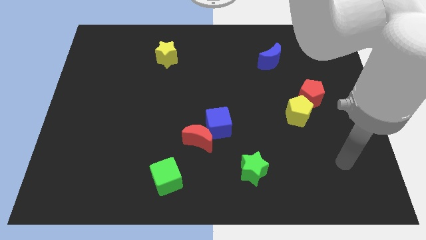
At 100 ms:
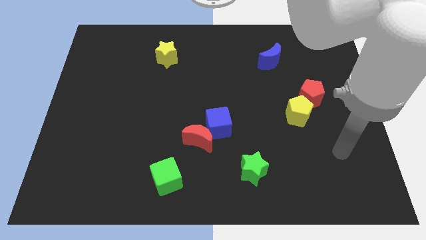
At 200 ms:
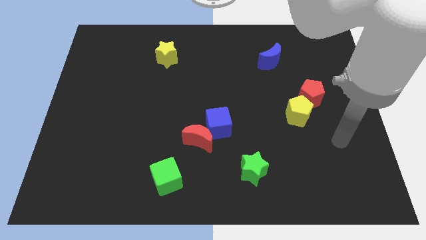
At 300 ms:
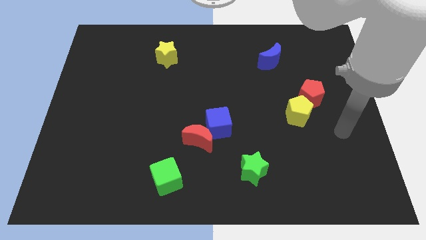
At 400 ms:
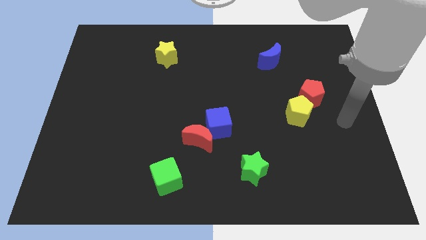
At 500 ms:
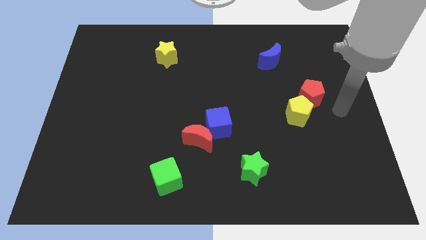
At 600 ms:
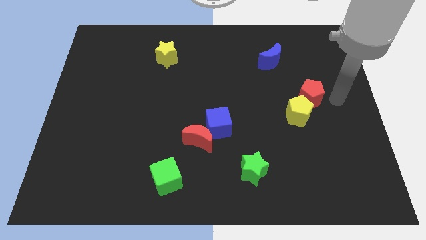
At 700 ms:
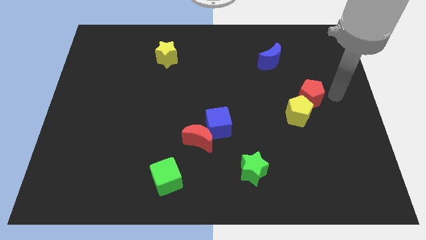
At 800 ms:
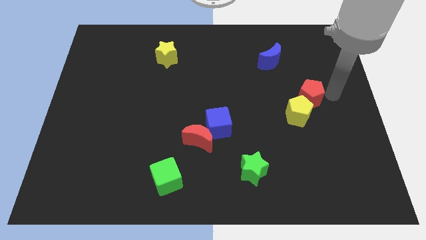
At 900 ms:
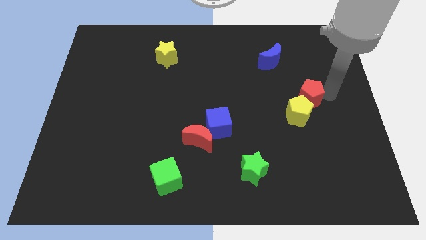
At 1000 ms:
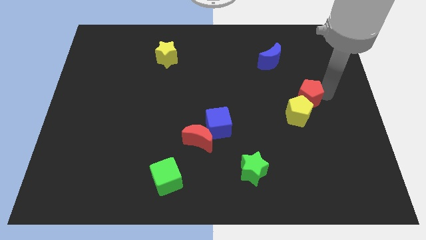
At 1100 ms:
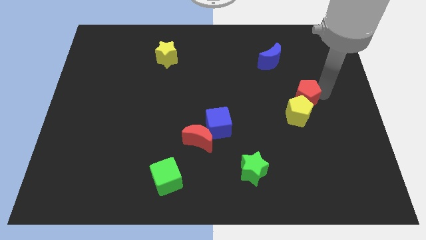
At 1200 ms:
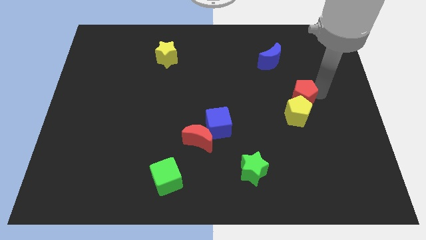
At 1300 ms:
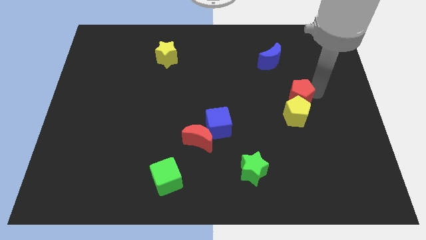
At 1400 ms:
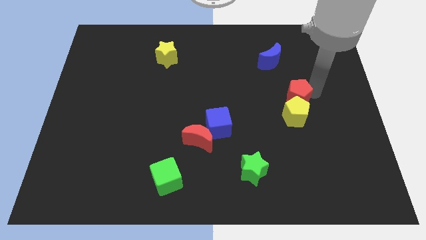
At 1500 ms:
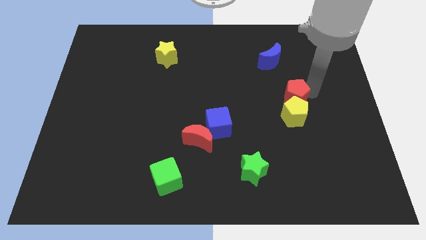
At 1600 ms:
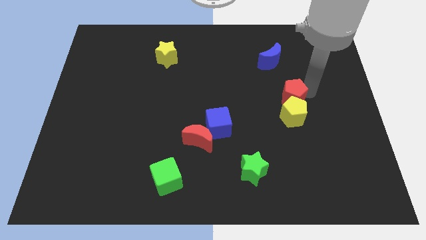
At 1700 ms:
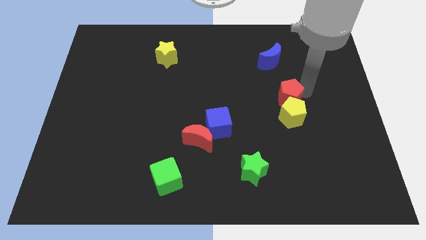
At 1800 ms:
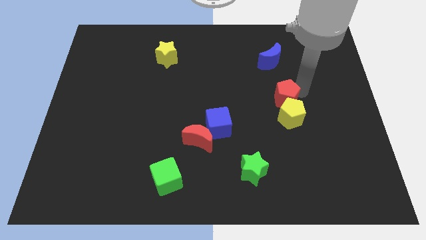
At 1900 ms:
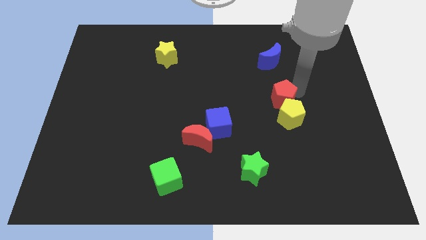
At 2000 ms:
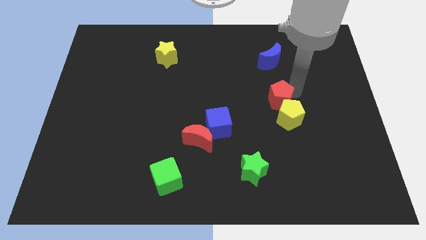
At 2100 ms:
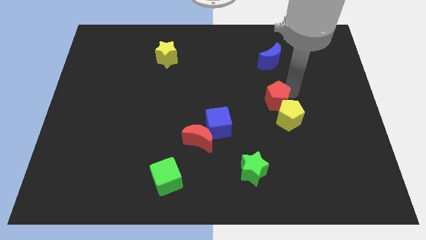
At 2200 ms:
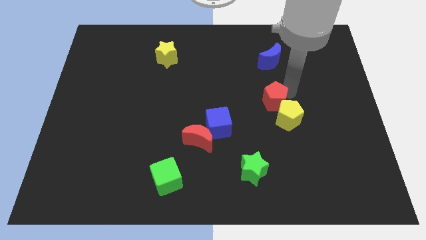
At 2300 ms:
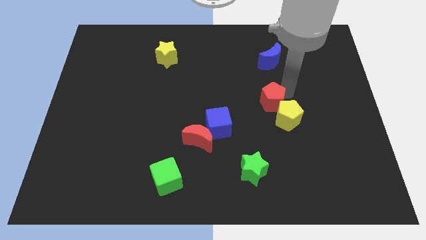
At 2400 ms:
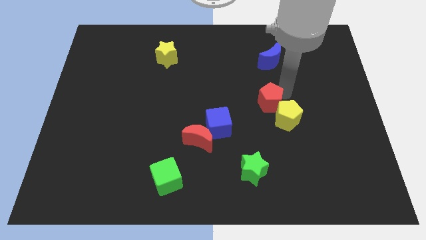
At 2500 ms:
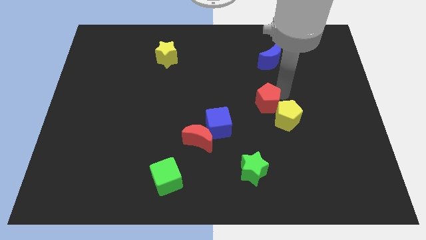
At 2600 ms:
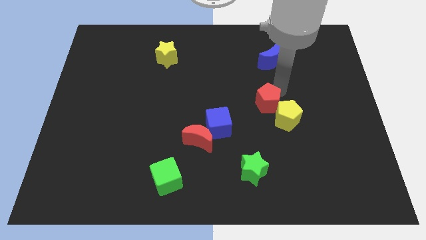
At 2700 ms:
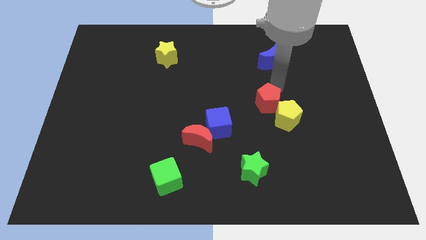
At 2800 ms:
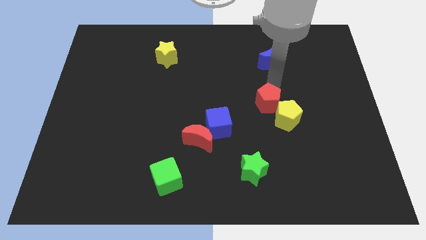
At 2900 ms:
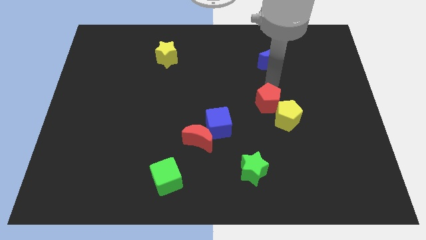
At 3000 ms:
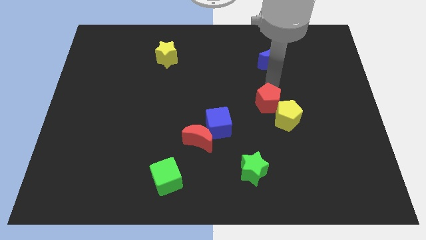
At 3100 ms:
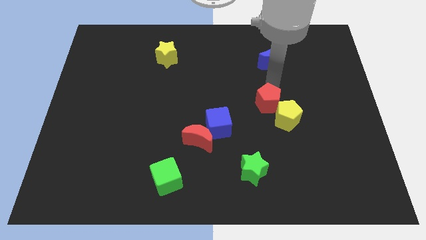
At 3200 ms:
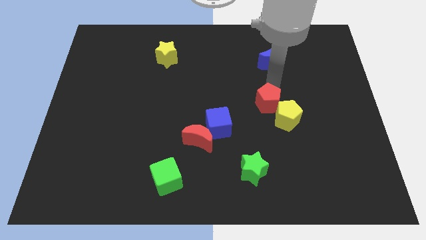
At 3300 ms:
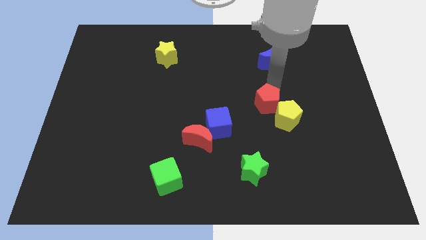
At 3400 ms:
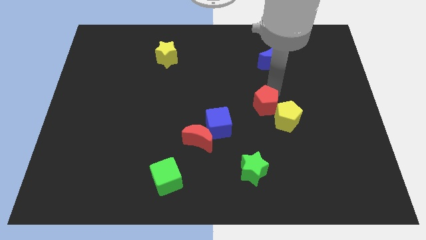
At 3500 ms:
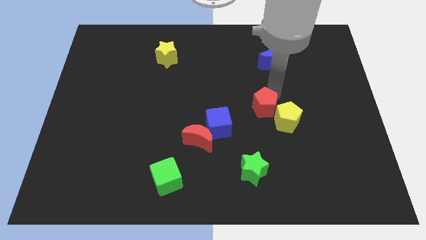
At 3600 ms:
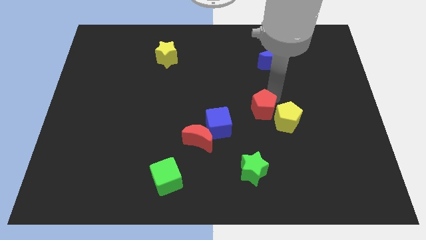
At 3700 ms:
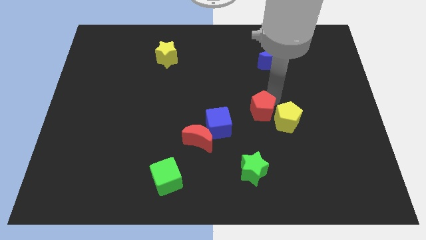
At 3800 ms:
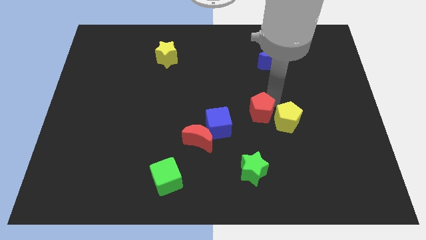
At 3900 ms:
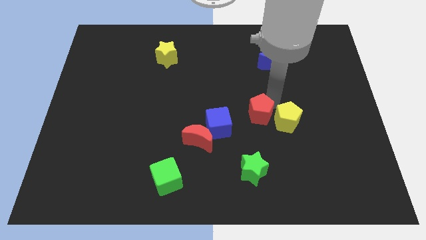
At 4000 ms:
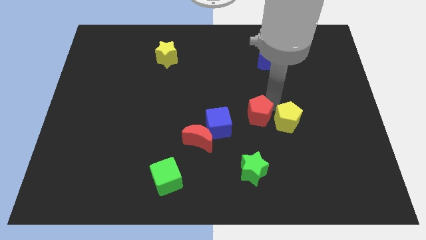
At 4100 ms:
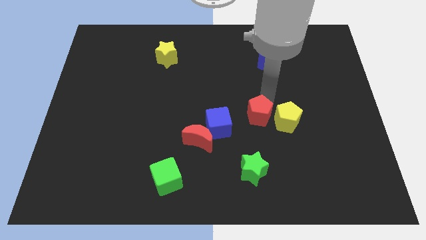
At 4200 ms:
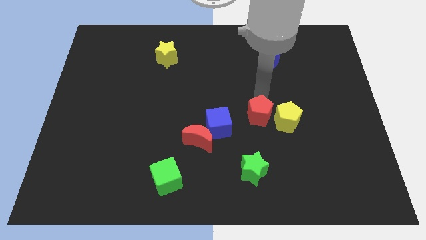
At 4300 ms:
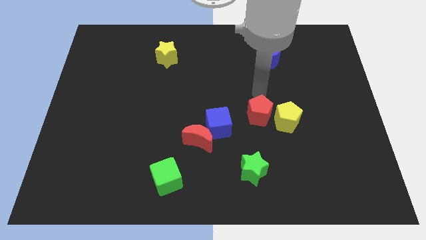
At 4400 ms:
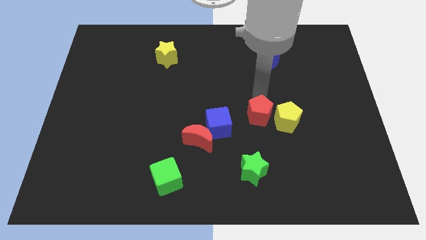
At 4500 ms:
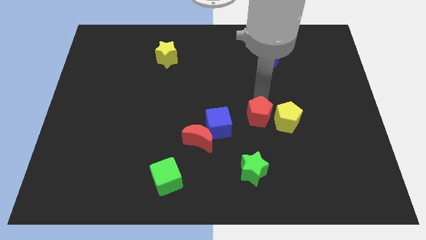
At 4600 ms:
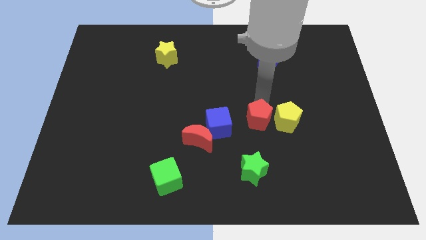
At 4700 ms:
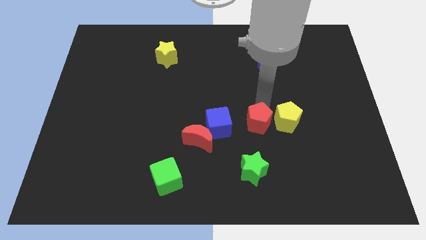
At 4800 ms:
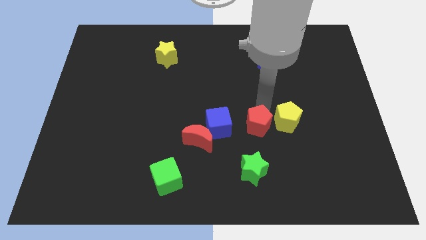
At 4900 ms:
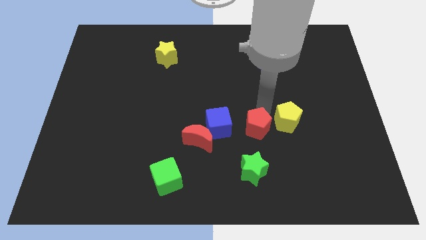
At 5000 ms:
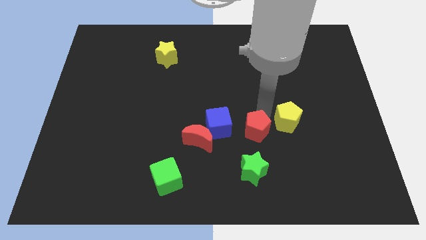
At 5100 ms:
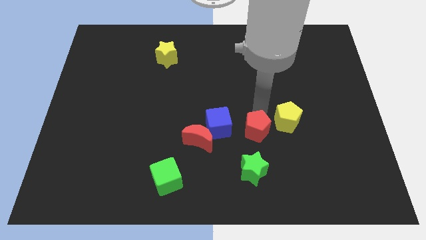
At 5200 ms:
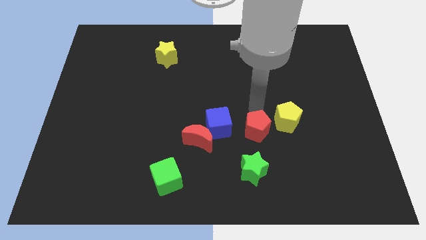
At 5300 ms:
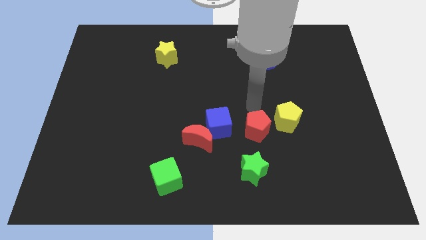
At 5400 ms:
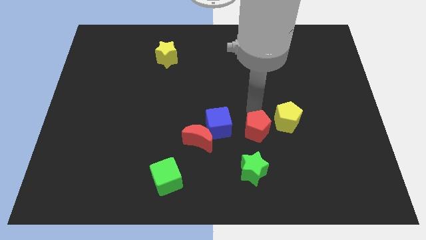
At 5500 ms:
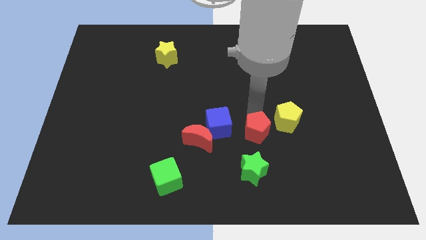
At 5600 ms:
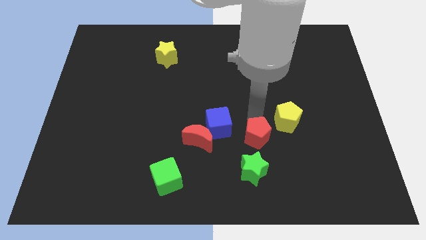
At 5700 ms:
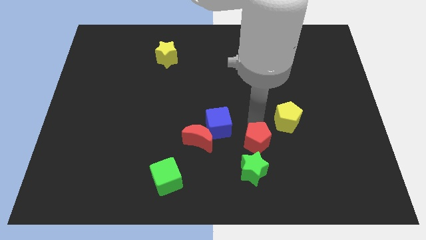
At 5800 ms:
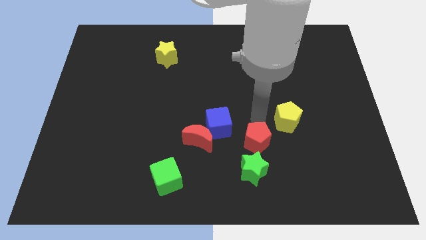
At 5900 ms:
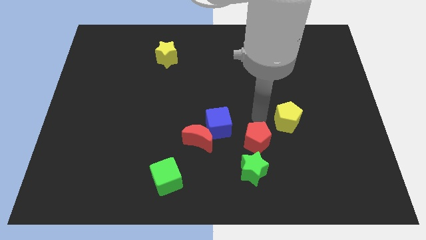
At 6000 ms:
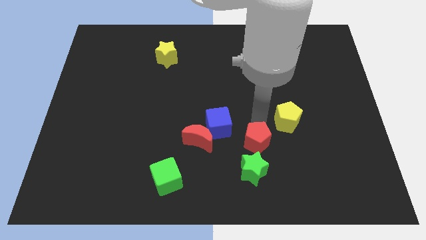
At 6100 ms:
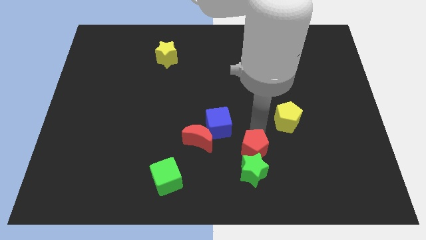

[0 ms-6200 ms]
push the red pentagon towards the green star

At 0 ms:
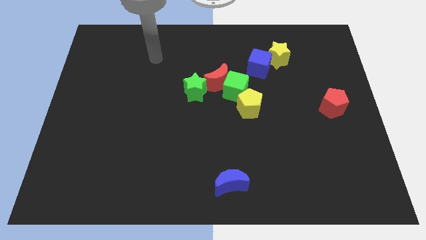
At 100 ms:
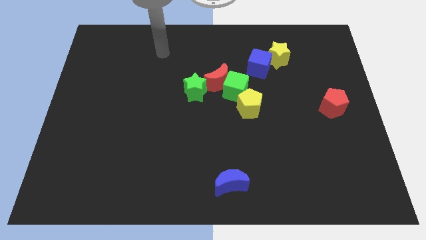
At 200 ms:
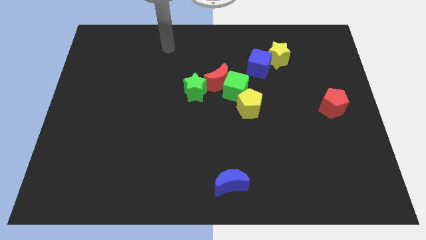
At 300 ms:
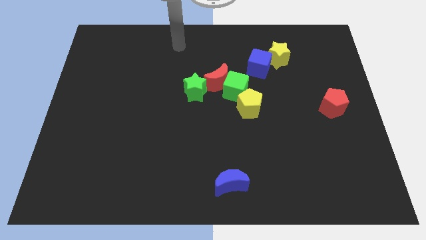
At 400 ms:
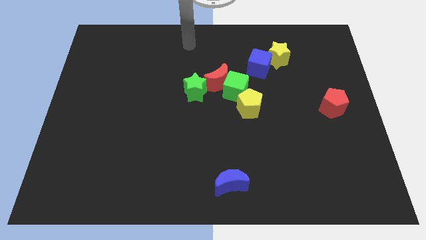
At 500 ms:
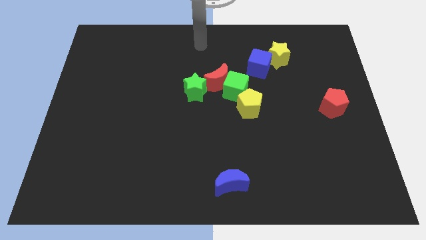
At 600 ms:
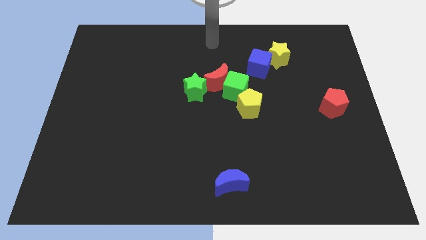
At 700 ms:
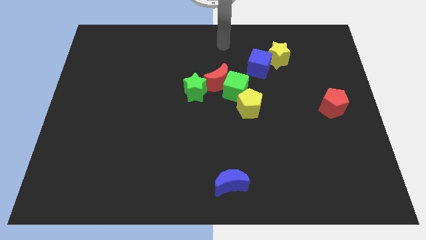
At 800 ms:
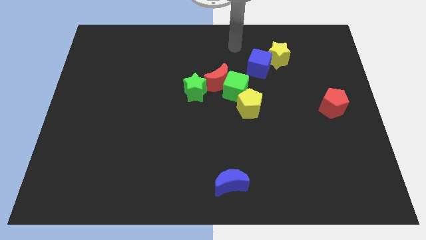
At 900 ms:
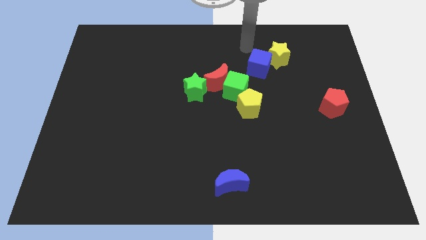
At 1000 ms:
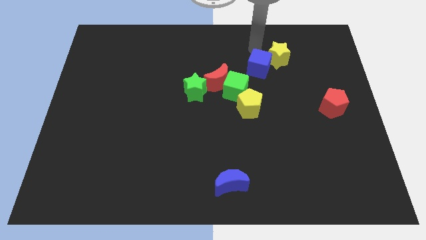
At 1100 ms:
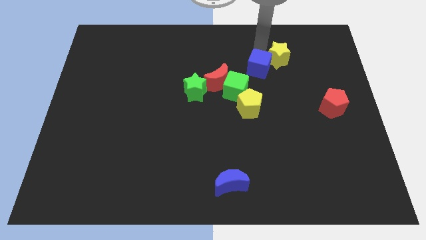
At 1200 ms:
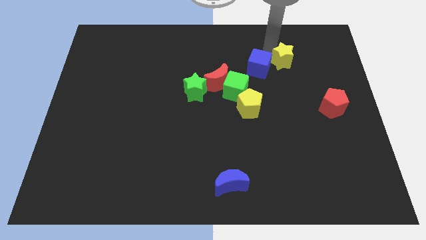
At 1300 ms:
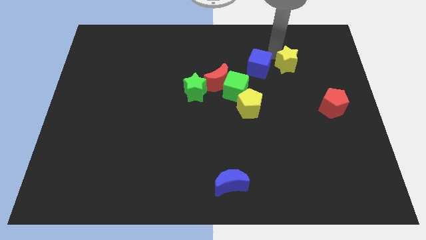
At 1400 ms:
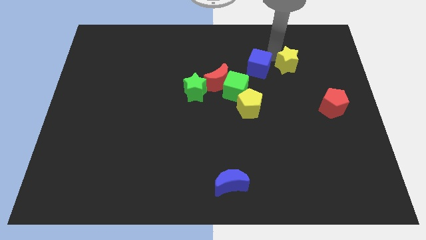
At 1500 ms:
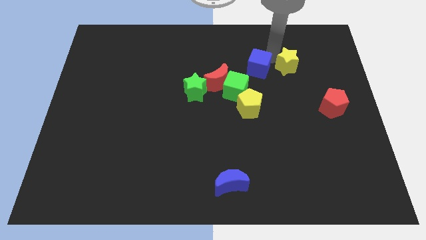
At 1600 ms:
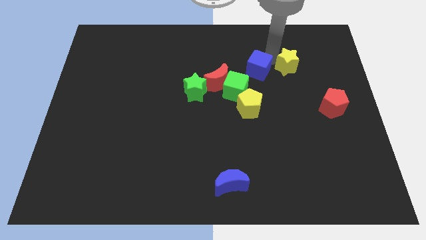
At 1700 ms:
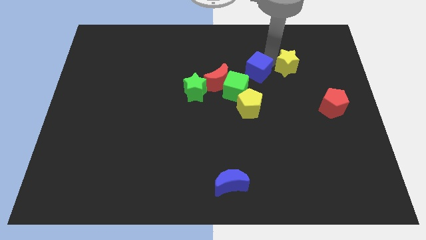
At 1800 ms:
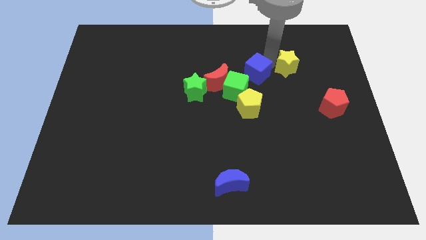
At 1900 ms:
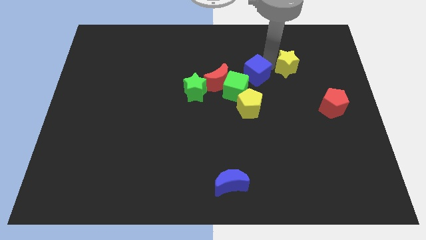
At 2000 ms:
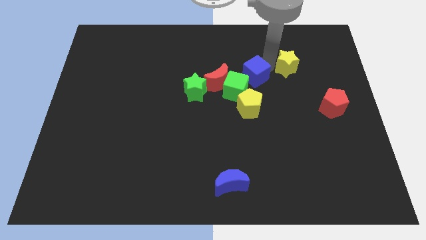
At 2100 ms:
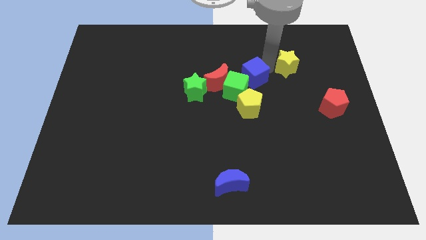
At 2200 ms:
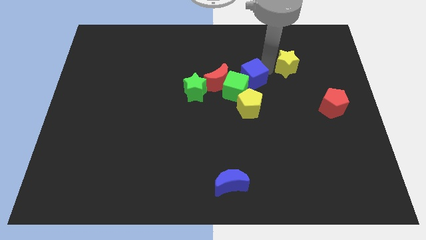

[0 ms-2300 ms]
put the blue cube towards the green cube
